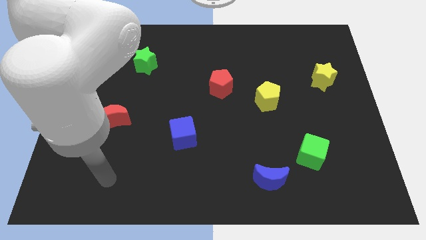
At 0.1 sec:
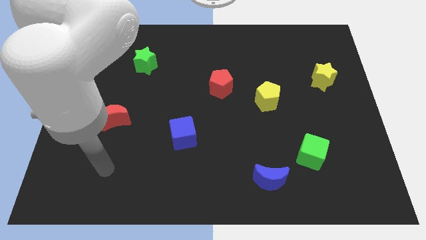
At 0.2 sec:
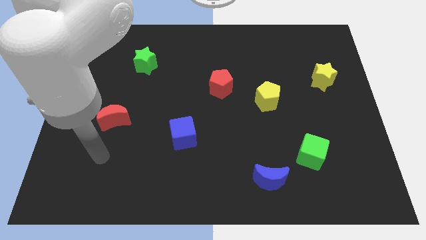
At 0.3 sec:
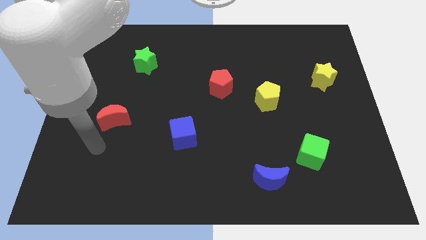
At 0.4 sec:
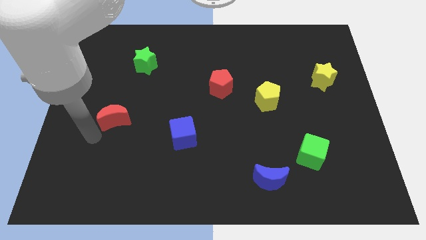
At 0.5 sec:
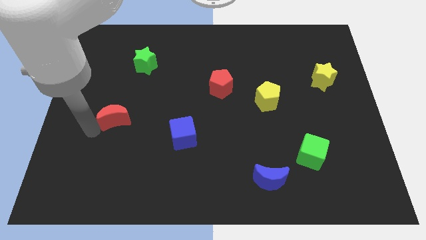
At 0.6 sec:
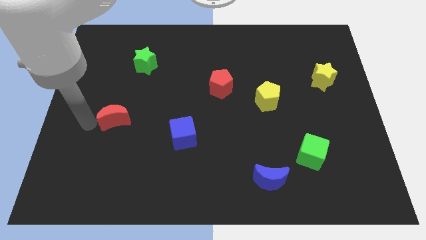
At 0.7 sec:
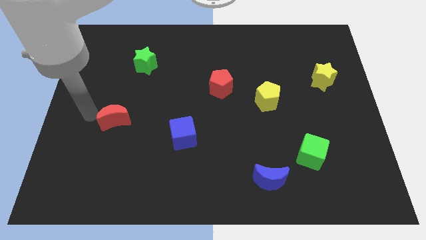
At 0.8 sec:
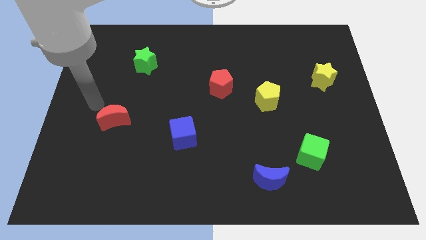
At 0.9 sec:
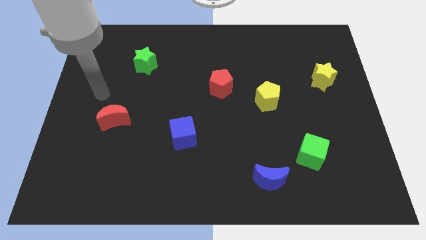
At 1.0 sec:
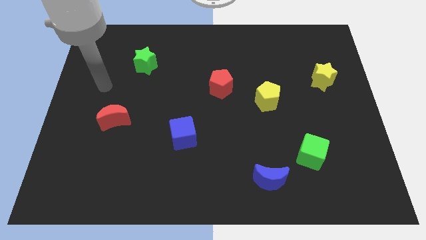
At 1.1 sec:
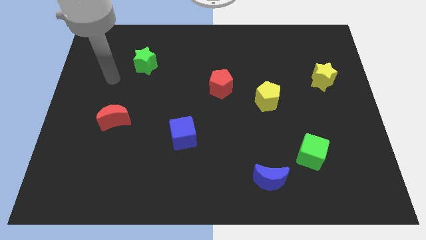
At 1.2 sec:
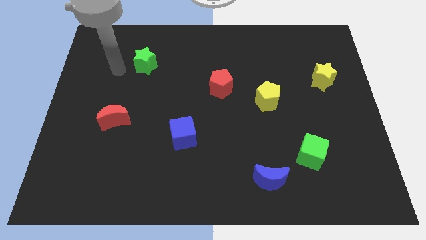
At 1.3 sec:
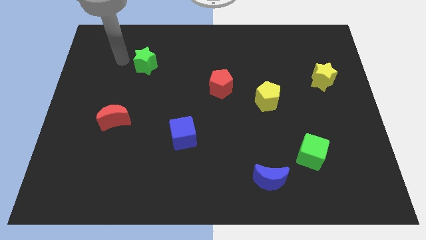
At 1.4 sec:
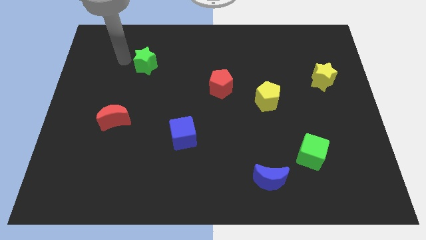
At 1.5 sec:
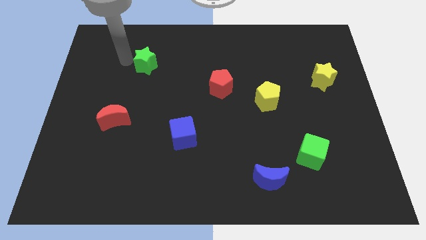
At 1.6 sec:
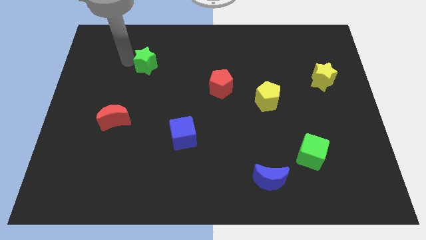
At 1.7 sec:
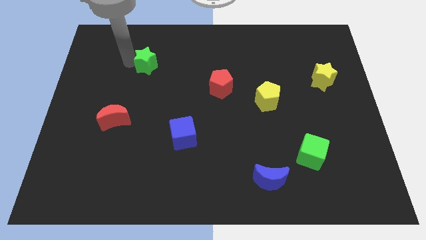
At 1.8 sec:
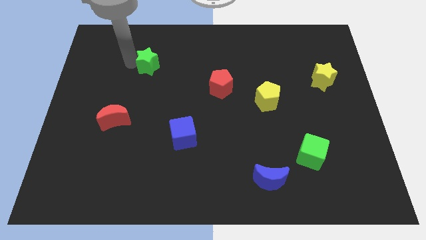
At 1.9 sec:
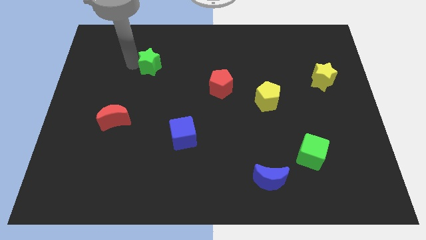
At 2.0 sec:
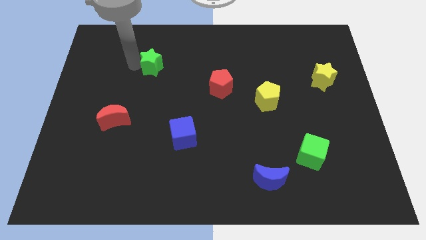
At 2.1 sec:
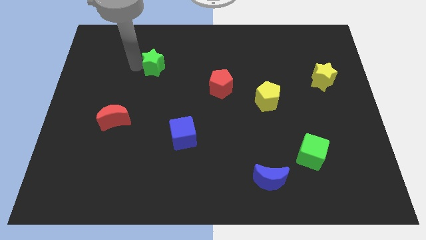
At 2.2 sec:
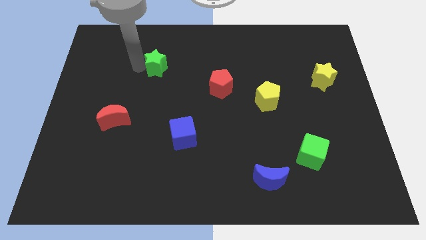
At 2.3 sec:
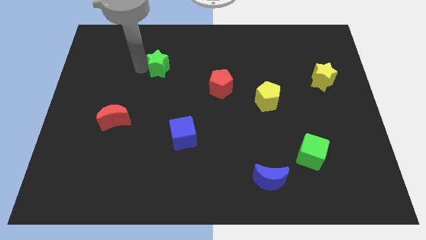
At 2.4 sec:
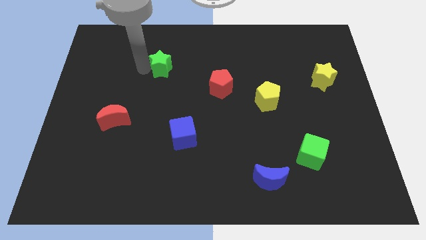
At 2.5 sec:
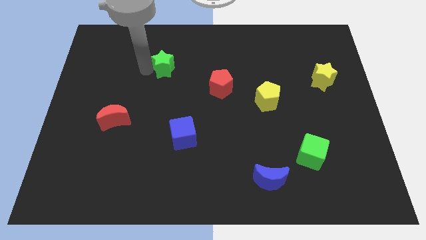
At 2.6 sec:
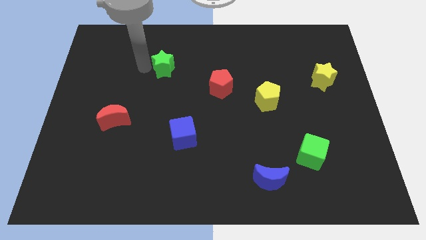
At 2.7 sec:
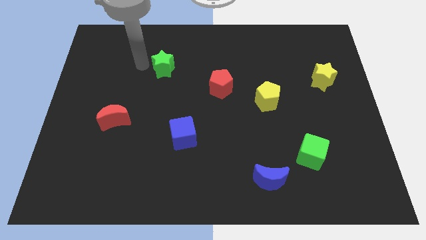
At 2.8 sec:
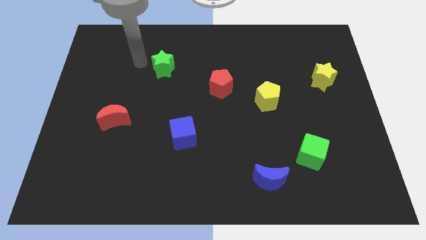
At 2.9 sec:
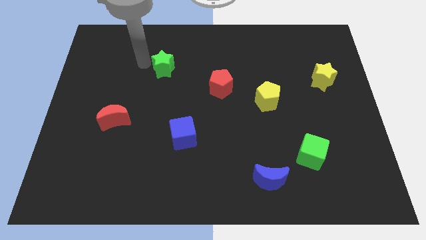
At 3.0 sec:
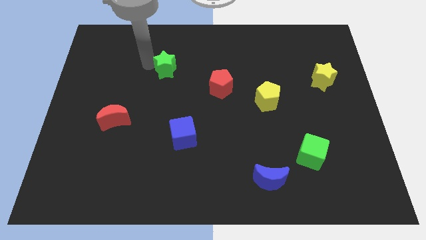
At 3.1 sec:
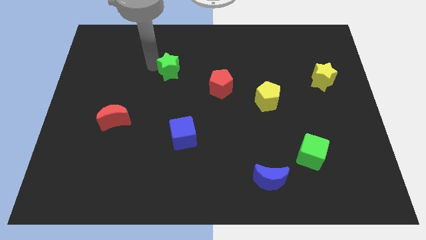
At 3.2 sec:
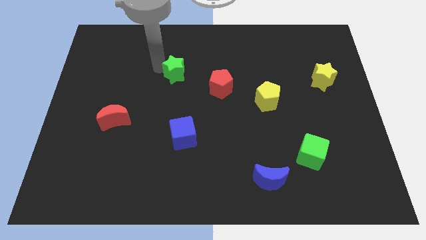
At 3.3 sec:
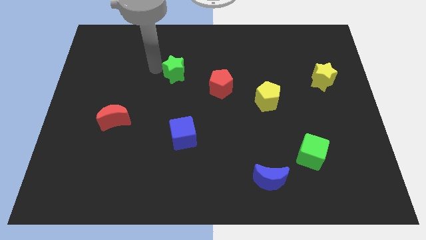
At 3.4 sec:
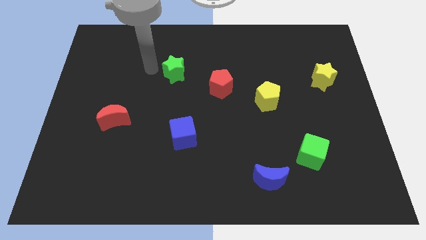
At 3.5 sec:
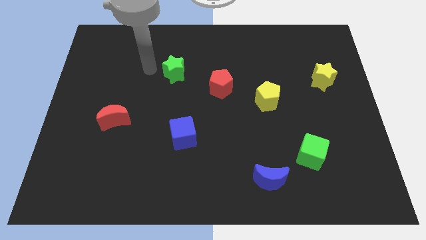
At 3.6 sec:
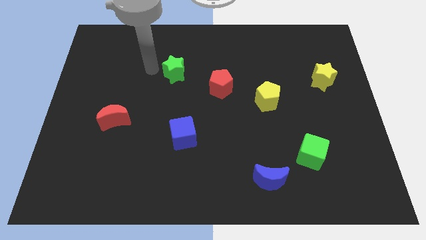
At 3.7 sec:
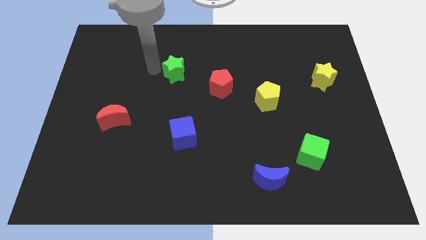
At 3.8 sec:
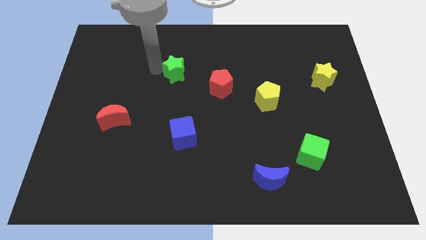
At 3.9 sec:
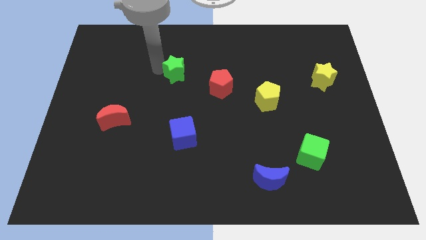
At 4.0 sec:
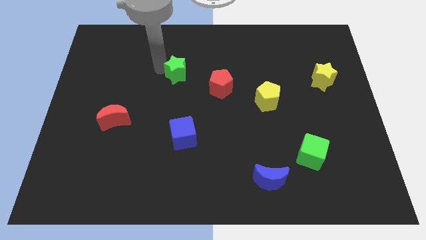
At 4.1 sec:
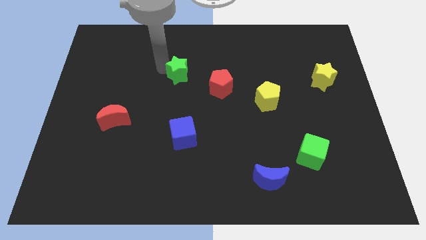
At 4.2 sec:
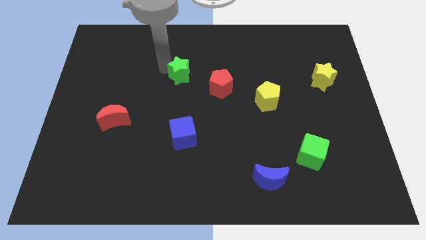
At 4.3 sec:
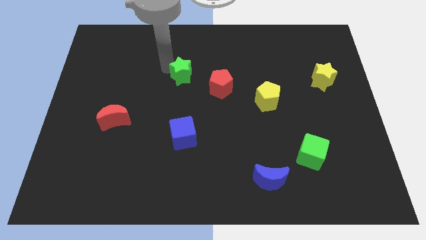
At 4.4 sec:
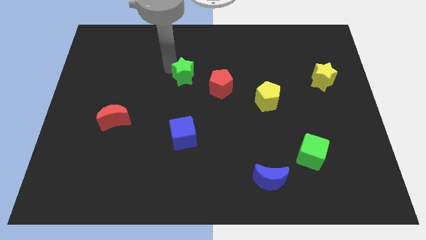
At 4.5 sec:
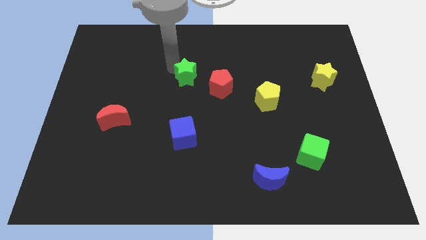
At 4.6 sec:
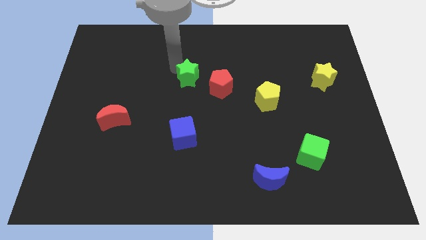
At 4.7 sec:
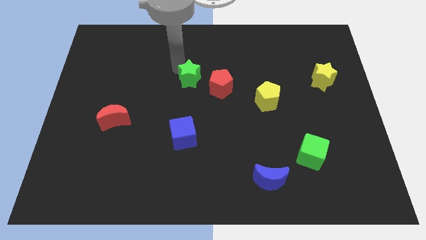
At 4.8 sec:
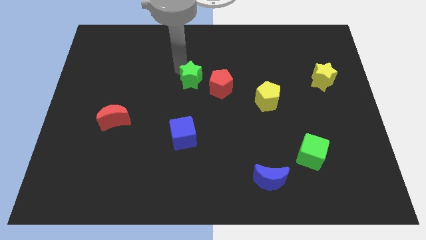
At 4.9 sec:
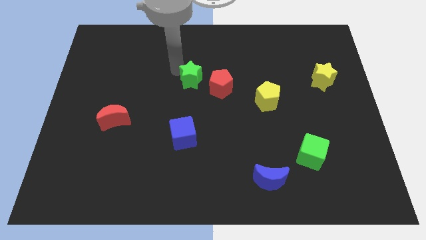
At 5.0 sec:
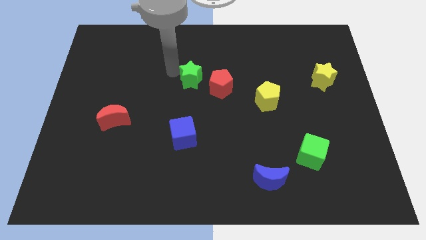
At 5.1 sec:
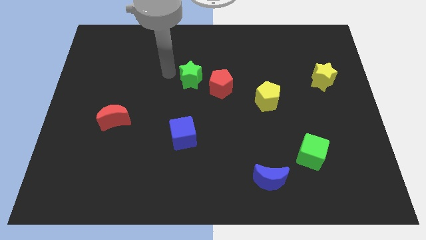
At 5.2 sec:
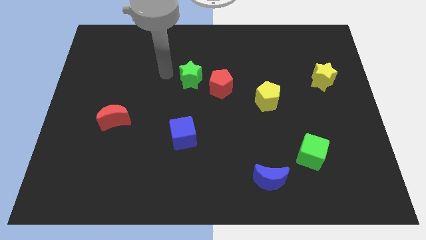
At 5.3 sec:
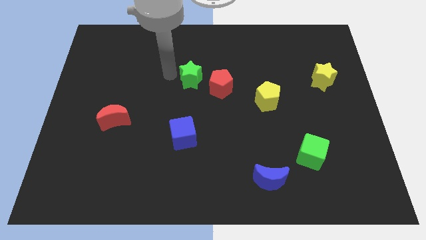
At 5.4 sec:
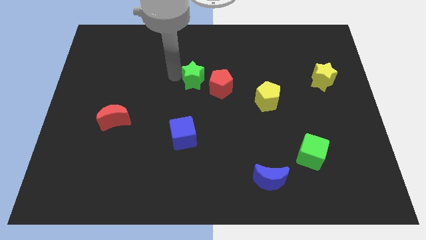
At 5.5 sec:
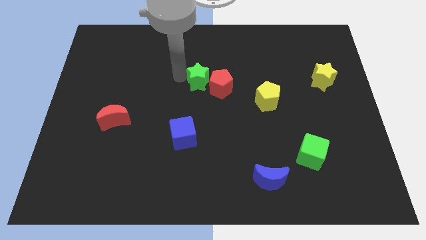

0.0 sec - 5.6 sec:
move the green star close to the red pentagon

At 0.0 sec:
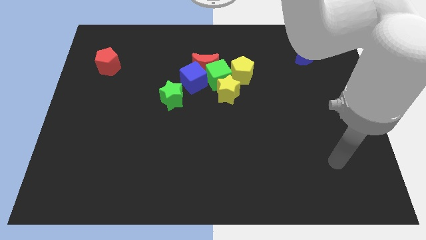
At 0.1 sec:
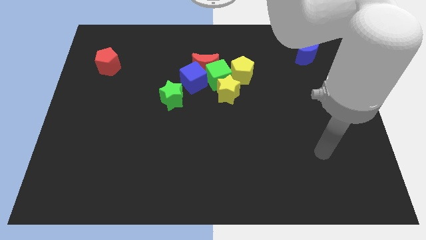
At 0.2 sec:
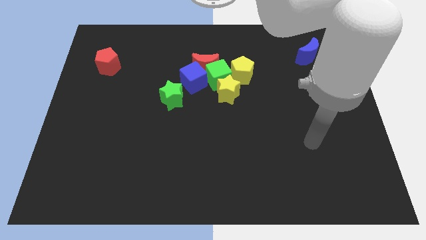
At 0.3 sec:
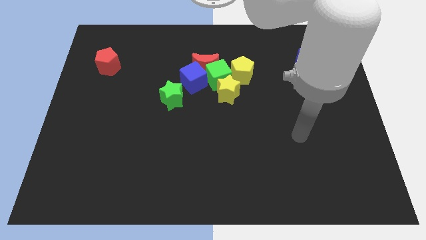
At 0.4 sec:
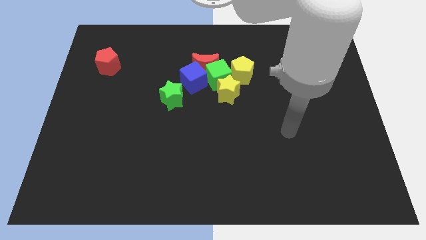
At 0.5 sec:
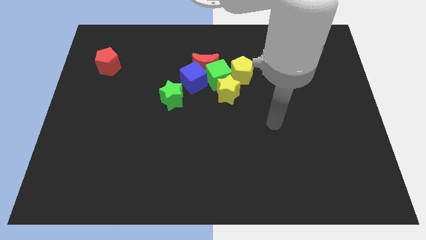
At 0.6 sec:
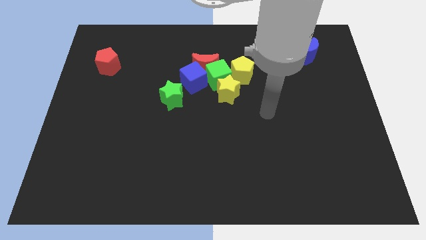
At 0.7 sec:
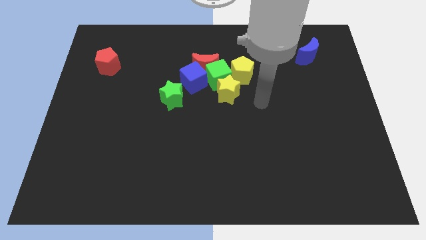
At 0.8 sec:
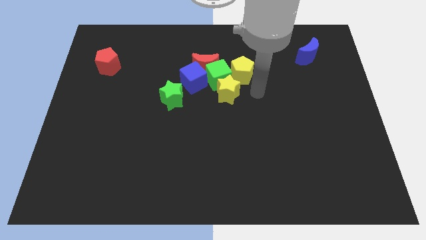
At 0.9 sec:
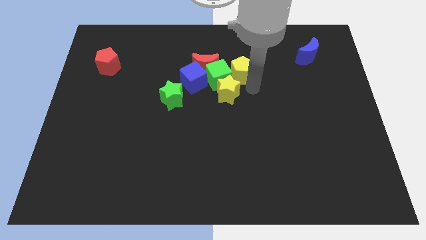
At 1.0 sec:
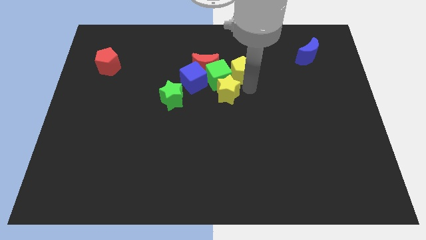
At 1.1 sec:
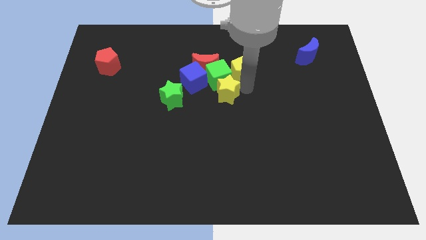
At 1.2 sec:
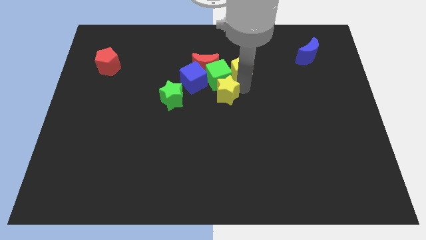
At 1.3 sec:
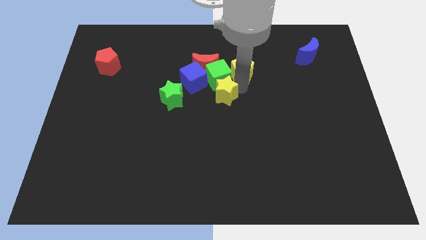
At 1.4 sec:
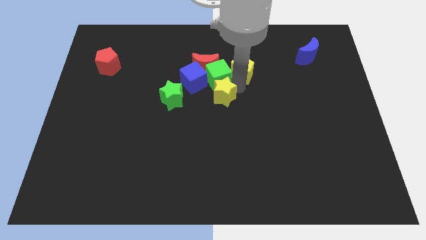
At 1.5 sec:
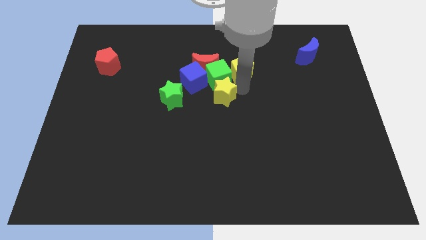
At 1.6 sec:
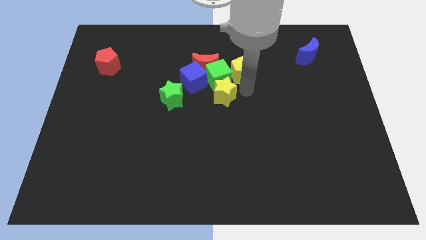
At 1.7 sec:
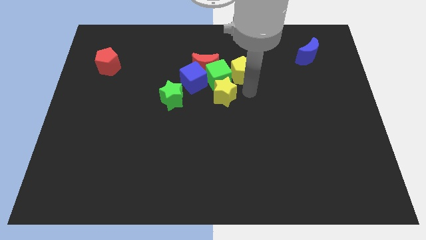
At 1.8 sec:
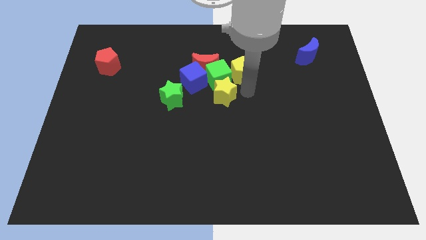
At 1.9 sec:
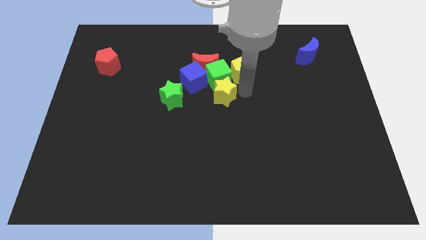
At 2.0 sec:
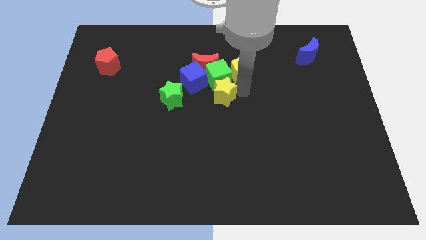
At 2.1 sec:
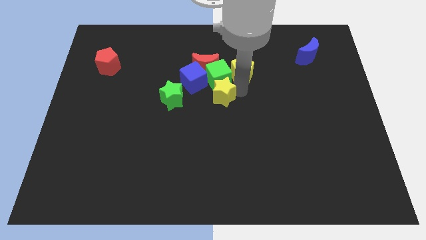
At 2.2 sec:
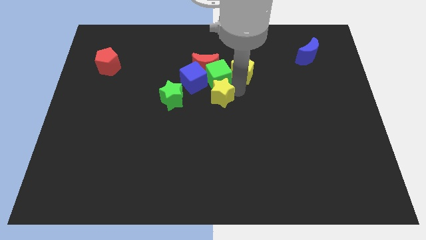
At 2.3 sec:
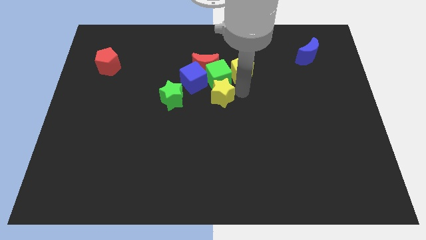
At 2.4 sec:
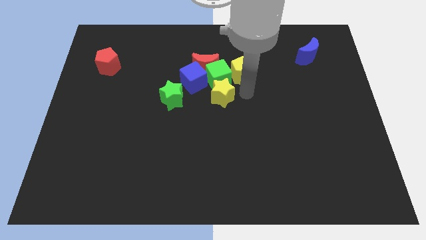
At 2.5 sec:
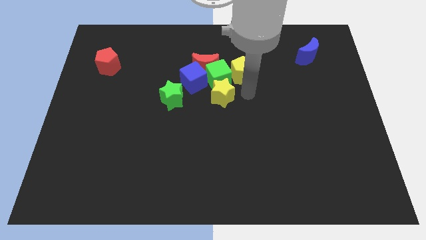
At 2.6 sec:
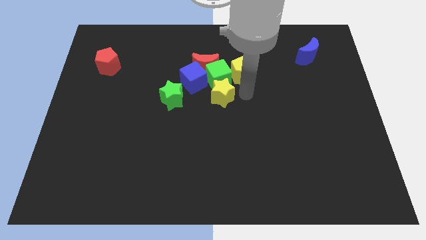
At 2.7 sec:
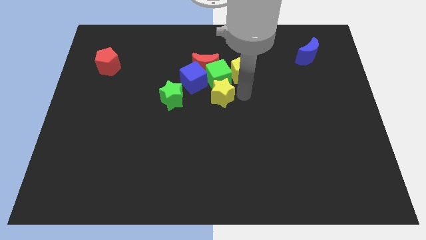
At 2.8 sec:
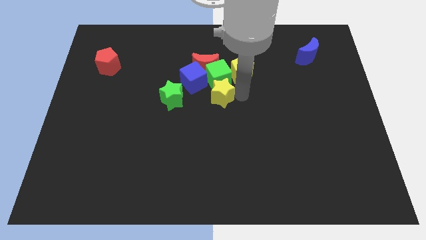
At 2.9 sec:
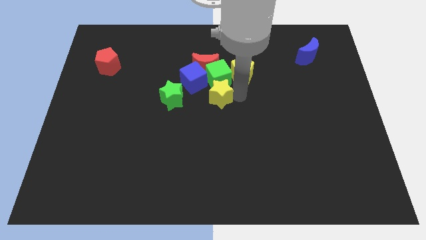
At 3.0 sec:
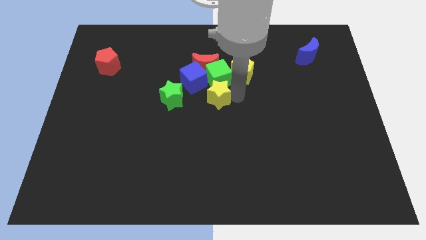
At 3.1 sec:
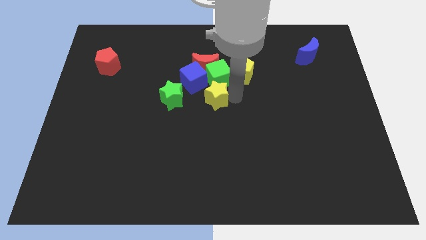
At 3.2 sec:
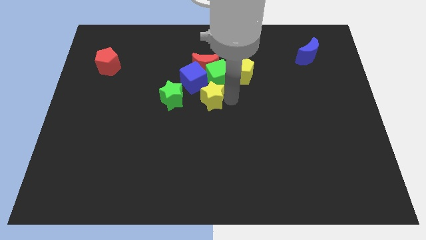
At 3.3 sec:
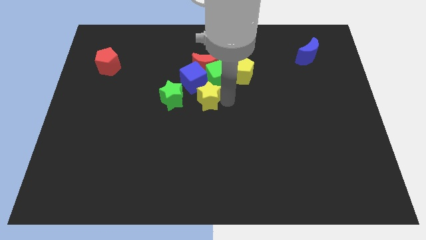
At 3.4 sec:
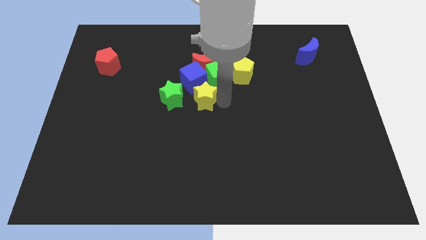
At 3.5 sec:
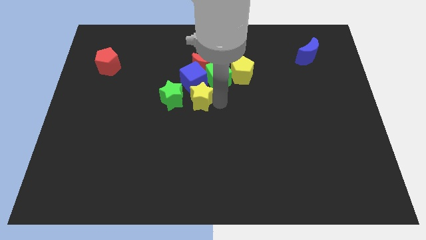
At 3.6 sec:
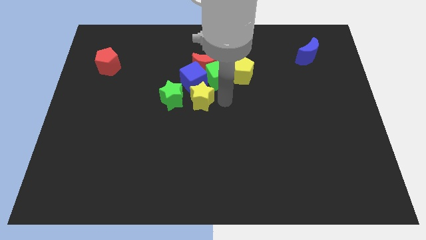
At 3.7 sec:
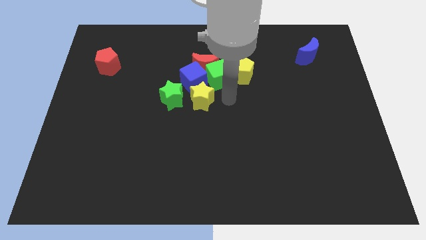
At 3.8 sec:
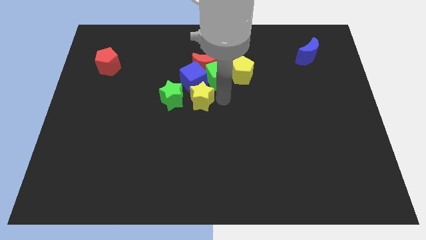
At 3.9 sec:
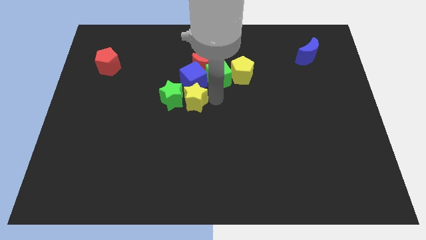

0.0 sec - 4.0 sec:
push the yellow star close to the green star
